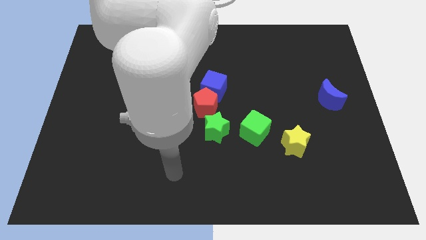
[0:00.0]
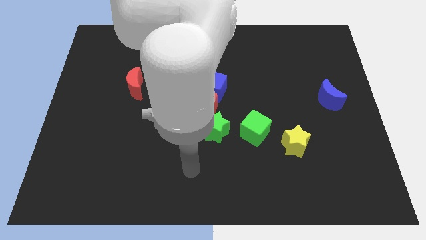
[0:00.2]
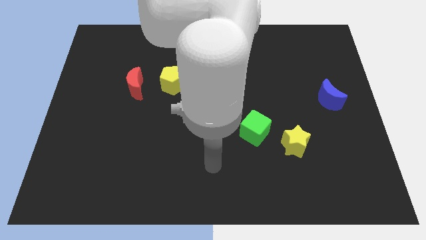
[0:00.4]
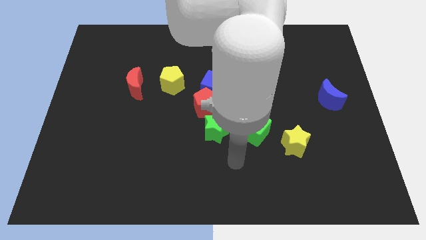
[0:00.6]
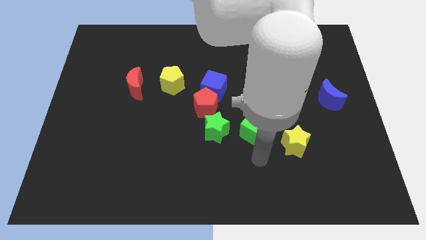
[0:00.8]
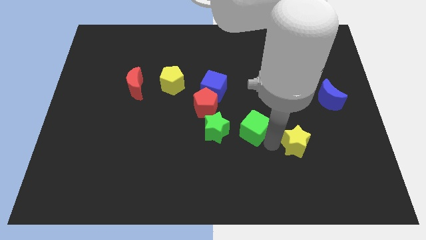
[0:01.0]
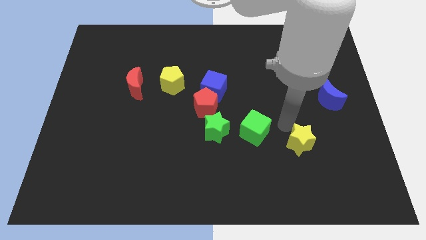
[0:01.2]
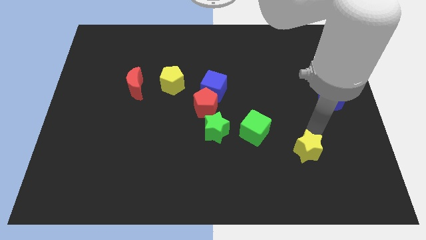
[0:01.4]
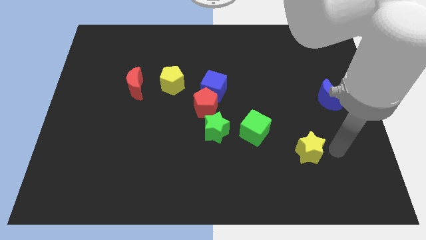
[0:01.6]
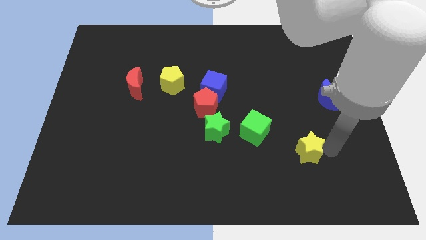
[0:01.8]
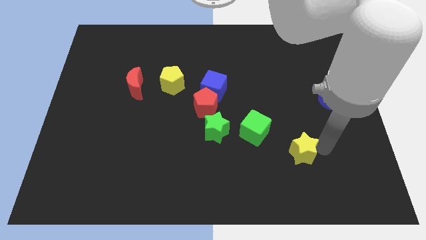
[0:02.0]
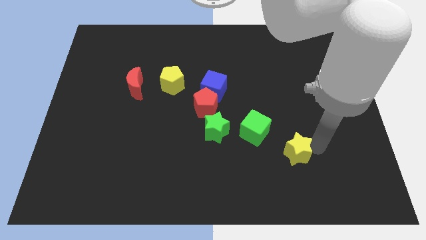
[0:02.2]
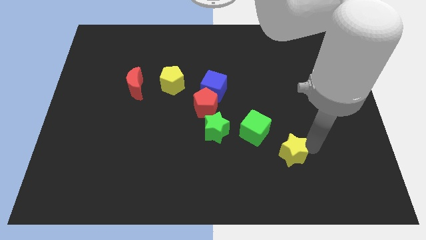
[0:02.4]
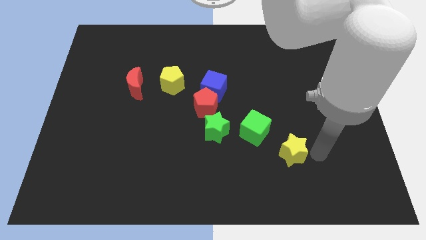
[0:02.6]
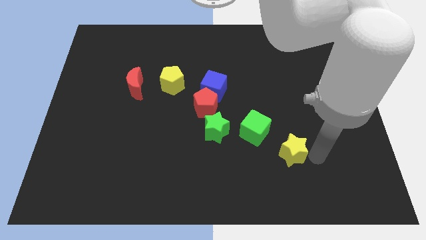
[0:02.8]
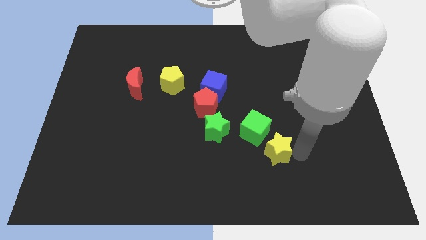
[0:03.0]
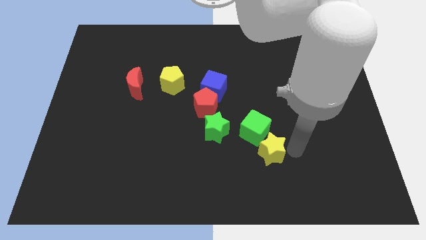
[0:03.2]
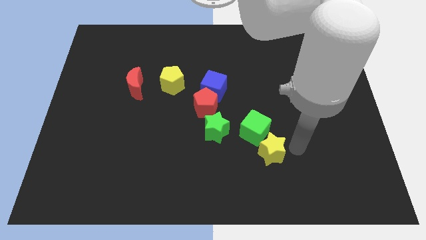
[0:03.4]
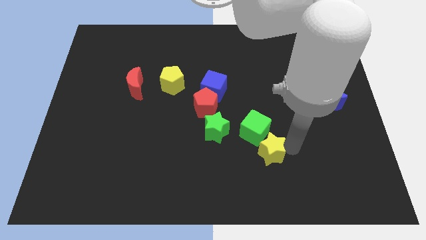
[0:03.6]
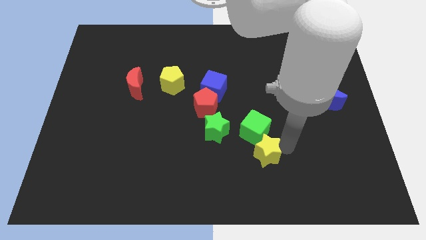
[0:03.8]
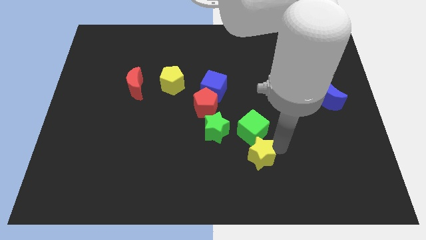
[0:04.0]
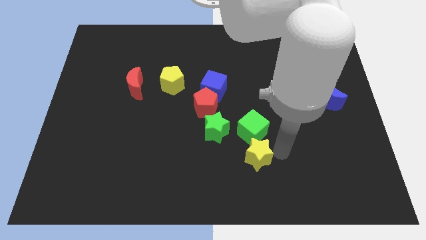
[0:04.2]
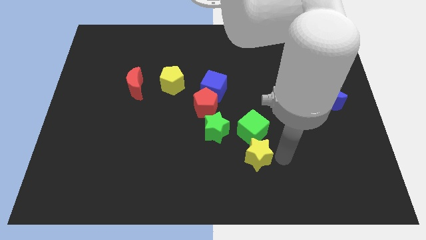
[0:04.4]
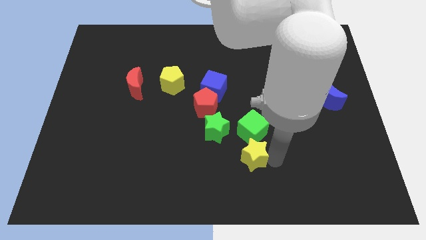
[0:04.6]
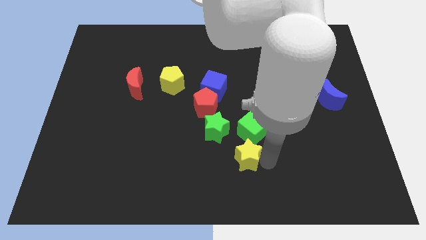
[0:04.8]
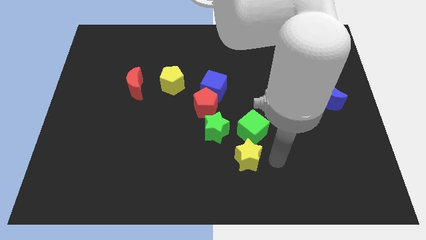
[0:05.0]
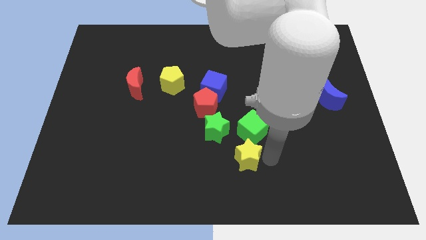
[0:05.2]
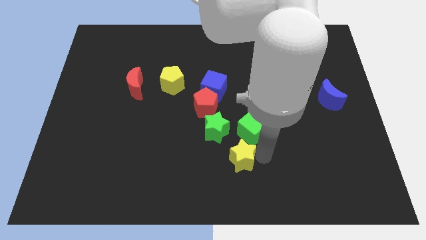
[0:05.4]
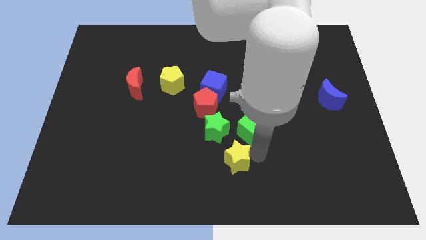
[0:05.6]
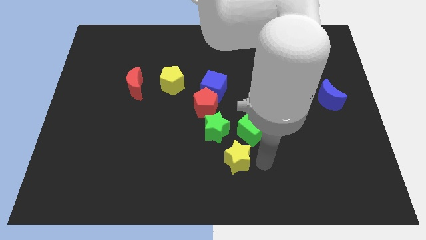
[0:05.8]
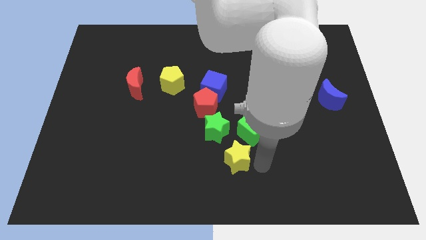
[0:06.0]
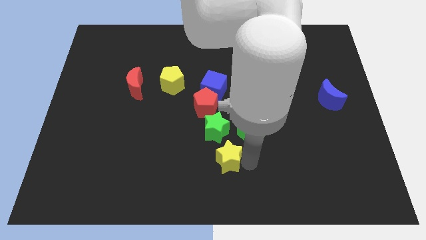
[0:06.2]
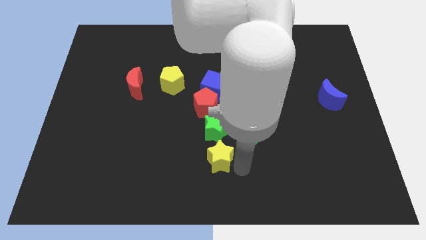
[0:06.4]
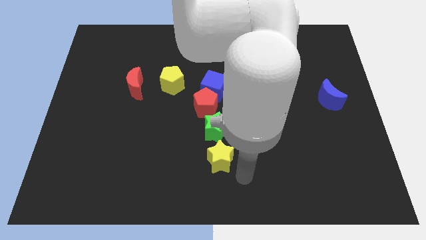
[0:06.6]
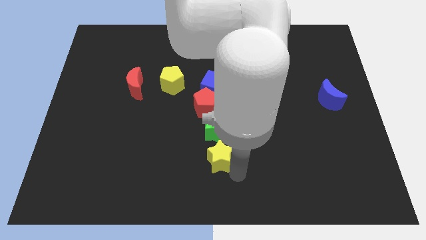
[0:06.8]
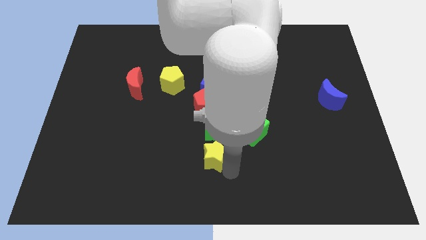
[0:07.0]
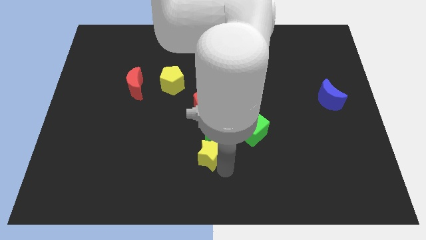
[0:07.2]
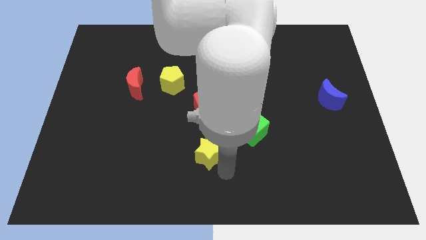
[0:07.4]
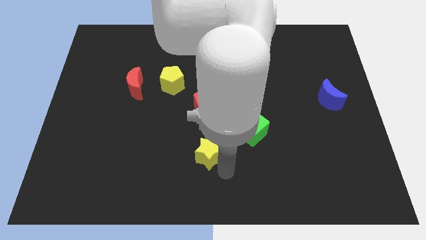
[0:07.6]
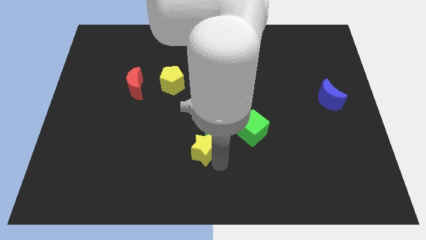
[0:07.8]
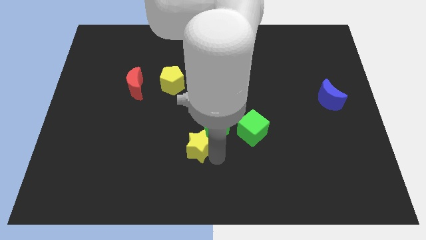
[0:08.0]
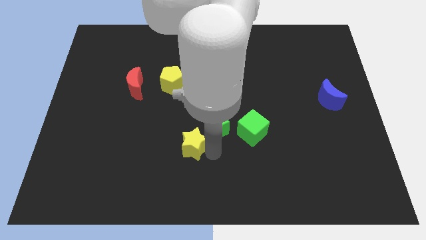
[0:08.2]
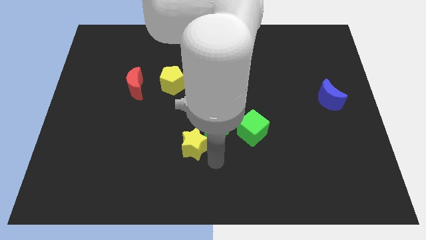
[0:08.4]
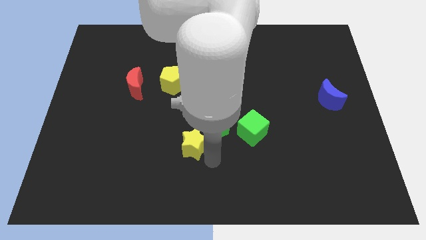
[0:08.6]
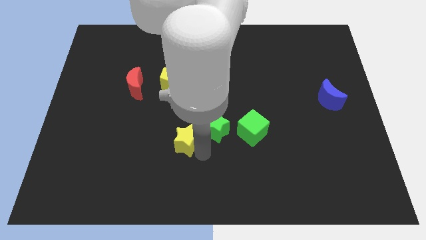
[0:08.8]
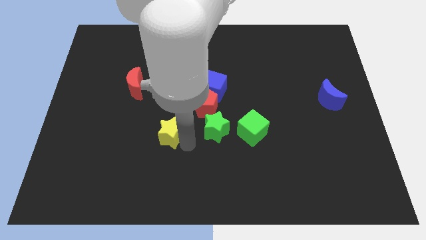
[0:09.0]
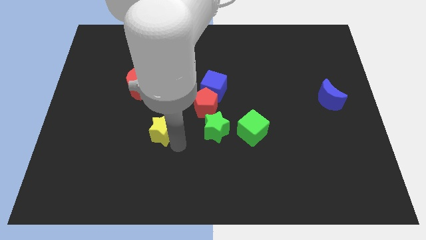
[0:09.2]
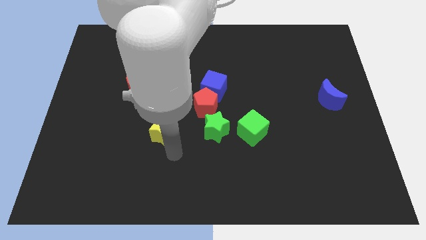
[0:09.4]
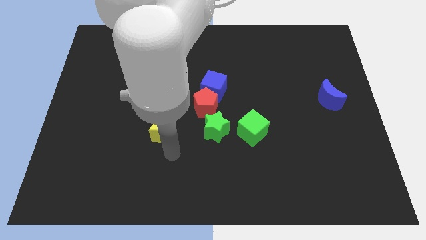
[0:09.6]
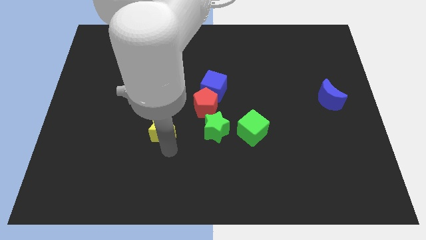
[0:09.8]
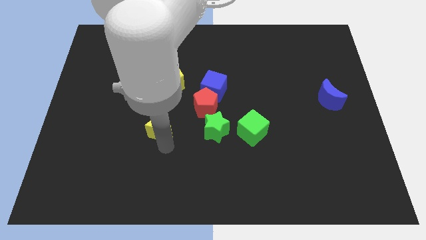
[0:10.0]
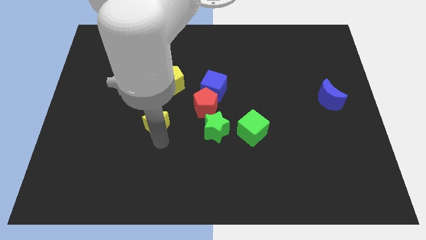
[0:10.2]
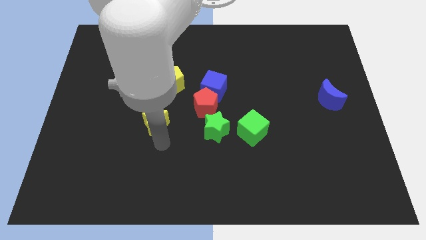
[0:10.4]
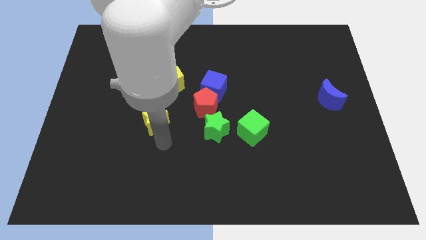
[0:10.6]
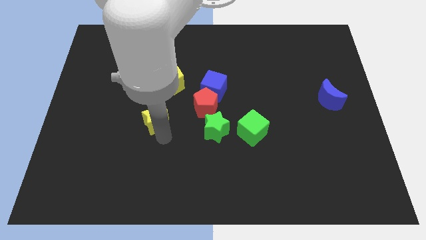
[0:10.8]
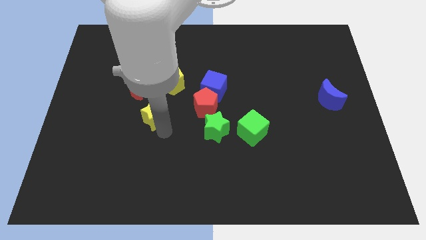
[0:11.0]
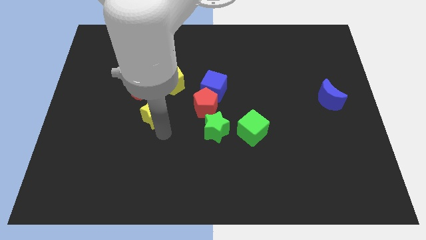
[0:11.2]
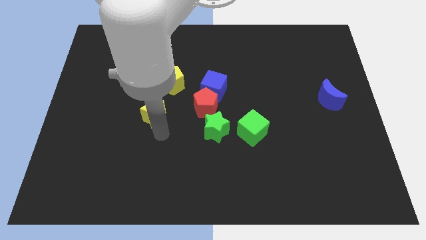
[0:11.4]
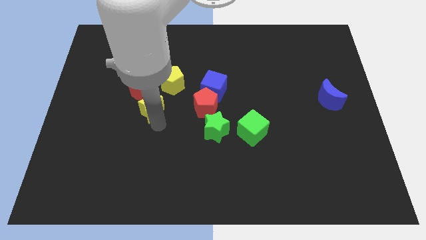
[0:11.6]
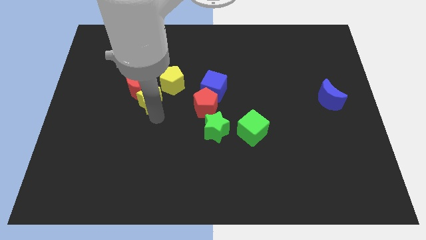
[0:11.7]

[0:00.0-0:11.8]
put the yellow star to the red moon

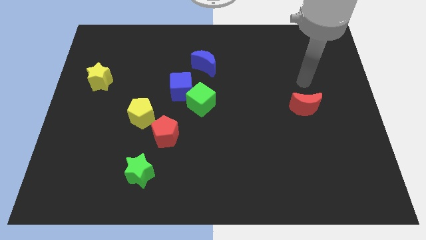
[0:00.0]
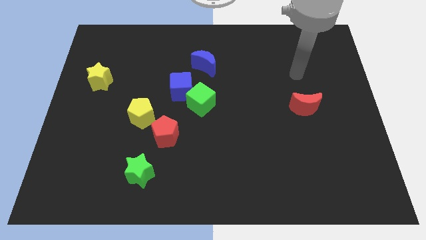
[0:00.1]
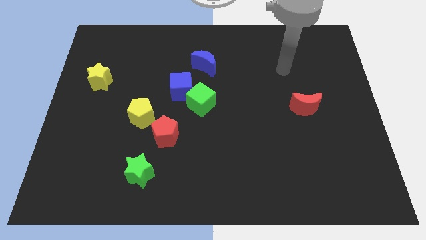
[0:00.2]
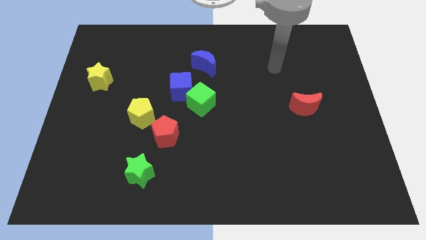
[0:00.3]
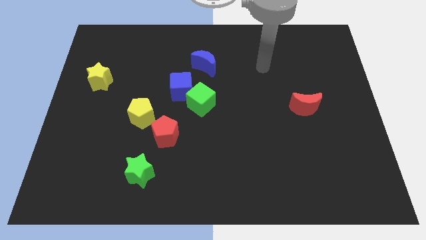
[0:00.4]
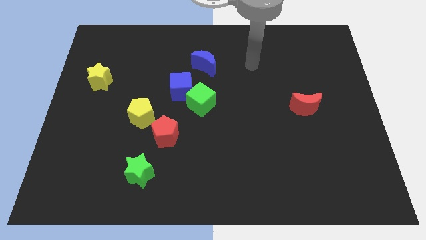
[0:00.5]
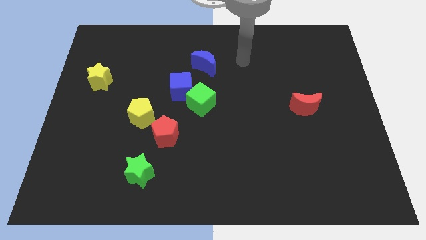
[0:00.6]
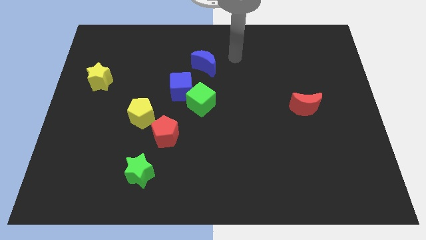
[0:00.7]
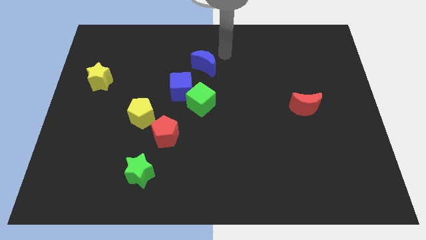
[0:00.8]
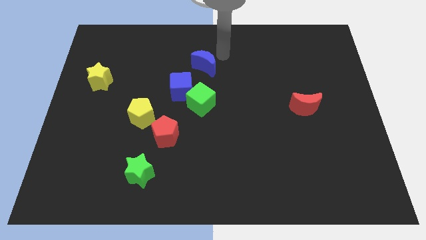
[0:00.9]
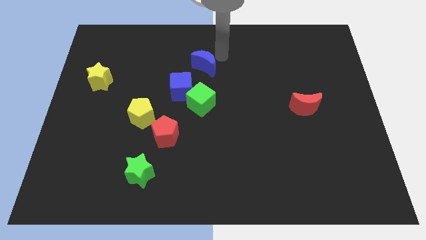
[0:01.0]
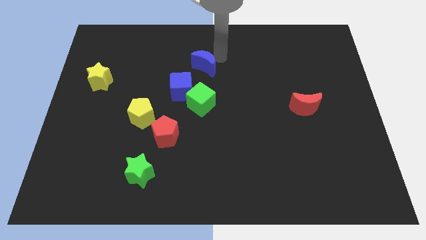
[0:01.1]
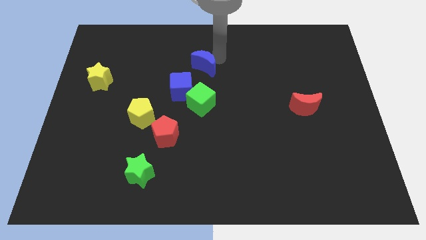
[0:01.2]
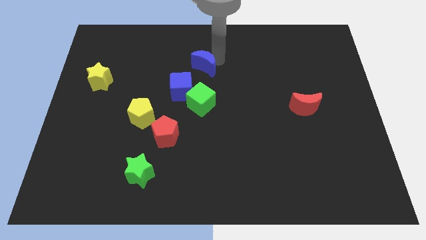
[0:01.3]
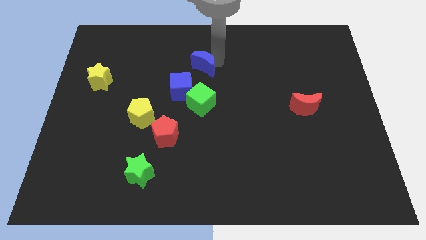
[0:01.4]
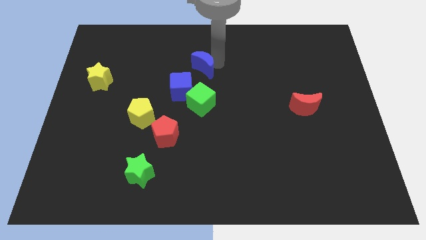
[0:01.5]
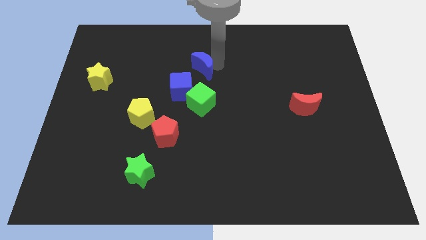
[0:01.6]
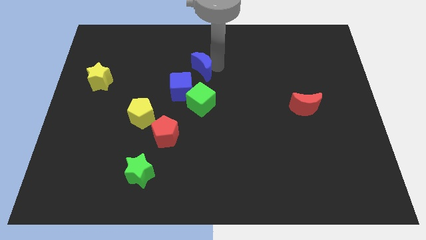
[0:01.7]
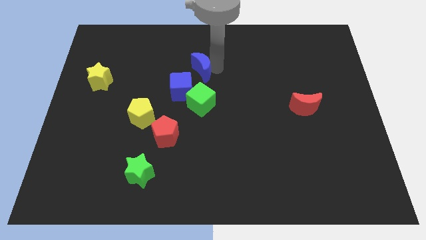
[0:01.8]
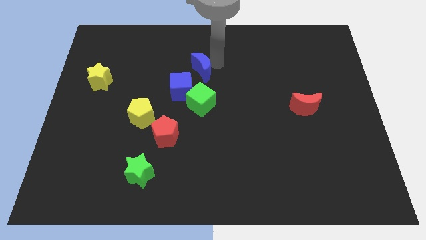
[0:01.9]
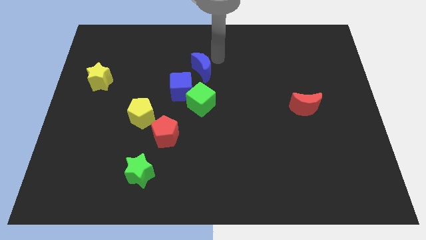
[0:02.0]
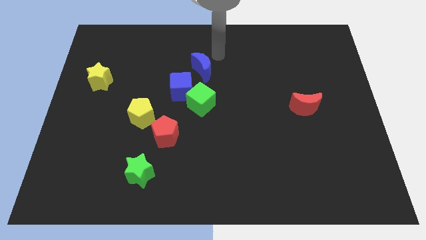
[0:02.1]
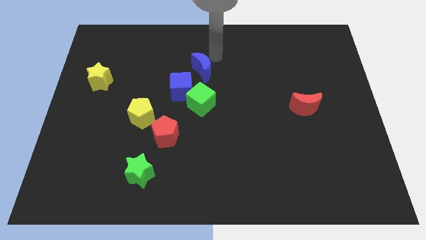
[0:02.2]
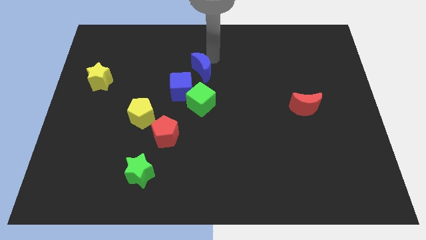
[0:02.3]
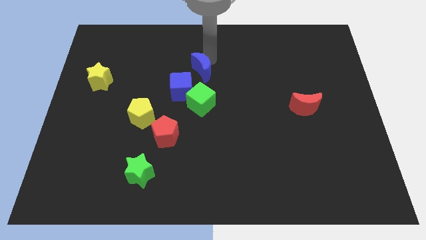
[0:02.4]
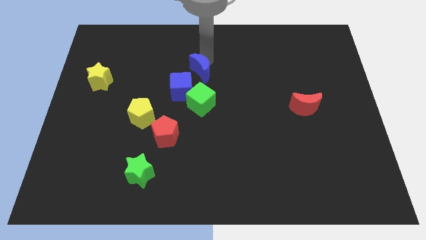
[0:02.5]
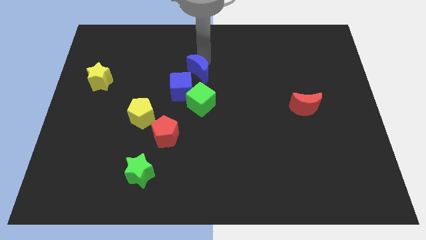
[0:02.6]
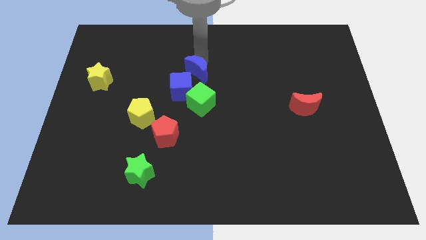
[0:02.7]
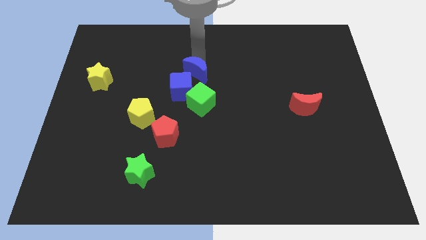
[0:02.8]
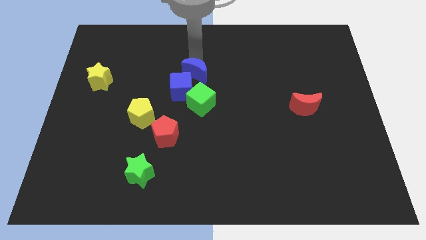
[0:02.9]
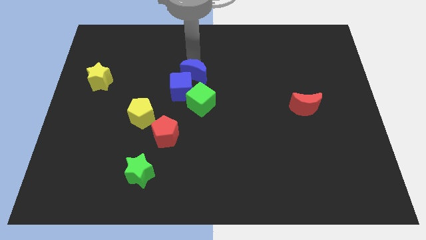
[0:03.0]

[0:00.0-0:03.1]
move the blue moon next to the blue cube
